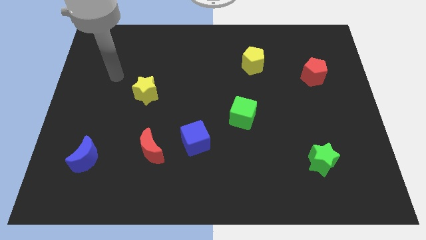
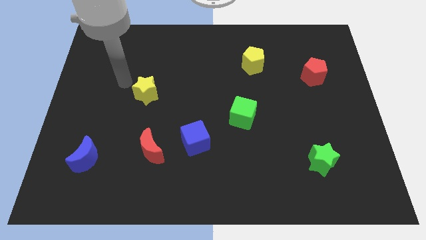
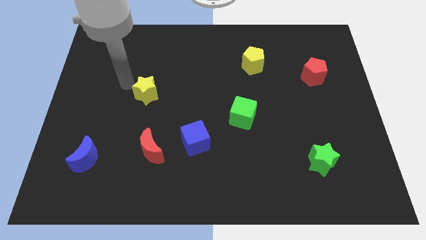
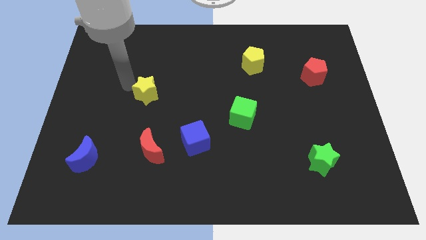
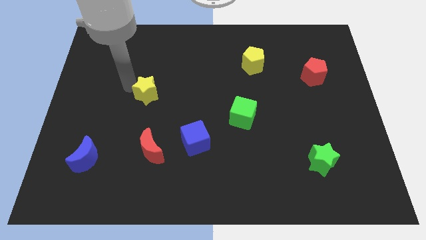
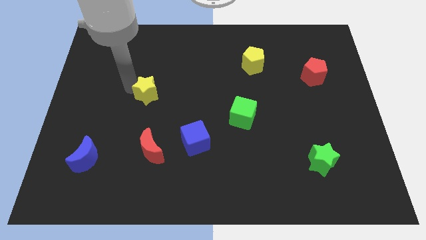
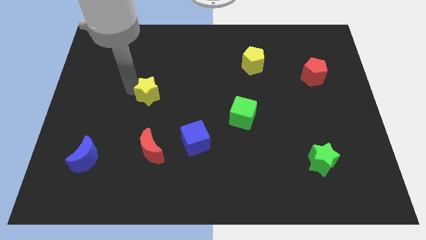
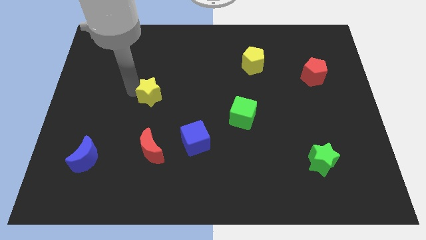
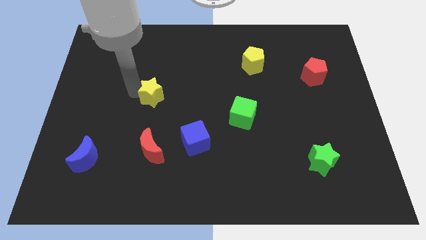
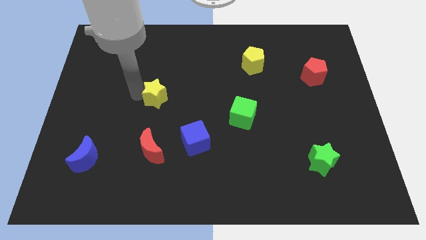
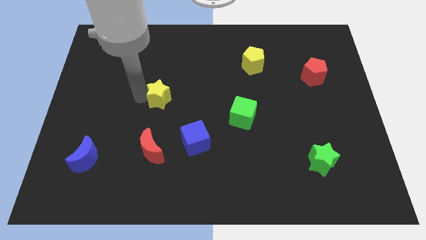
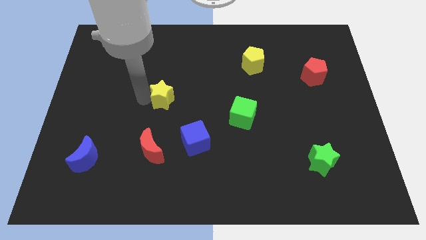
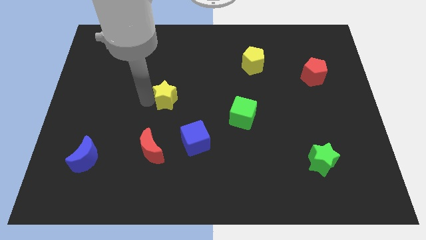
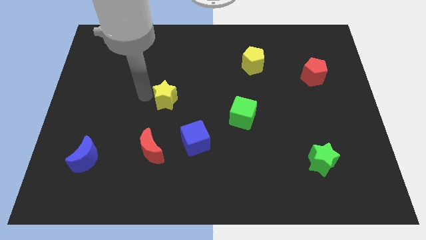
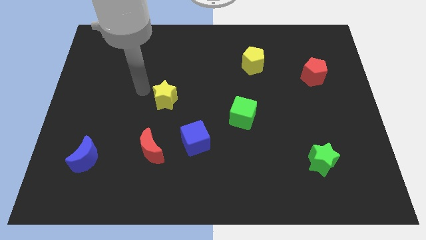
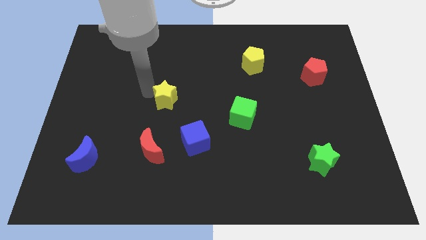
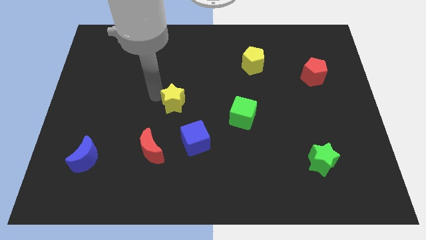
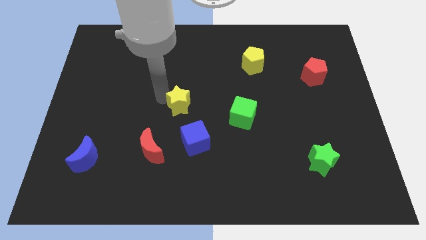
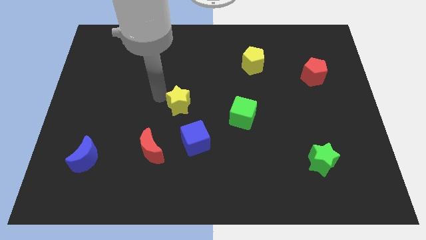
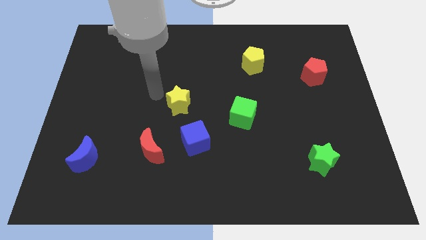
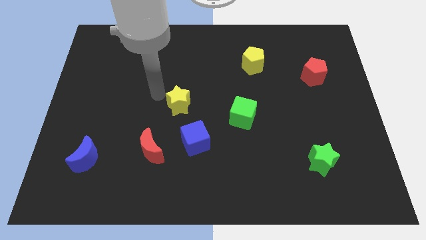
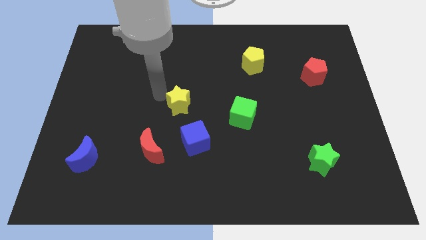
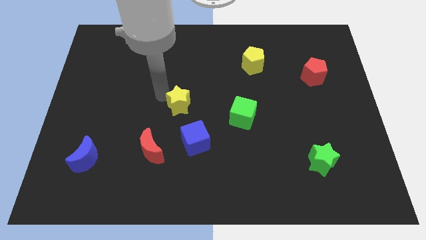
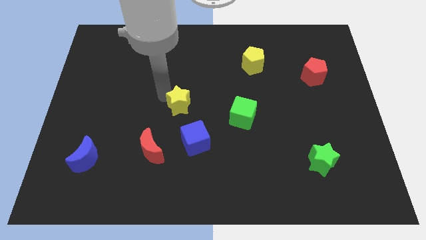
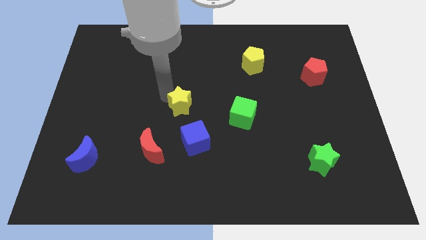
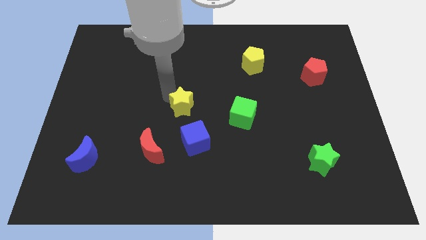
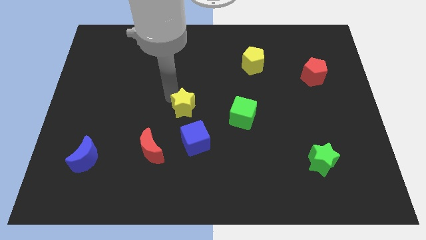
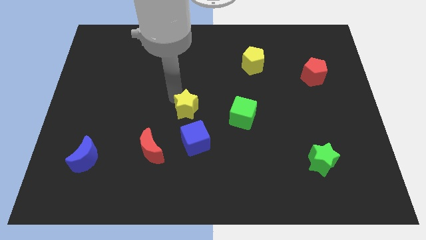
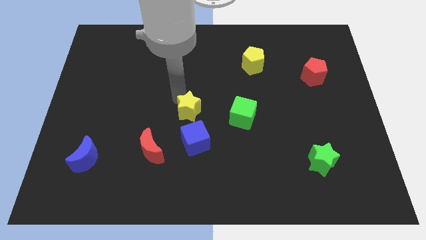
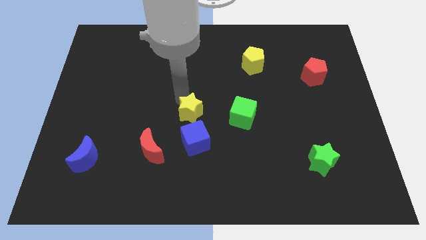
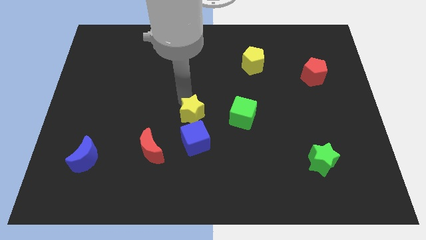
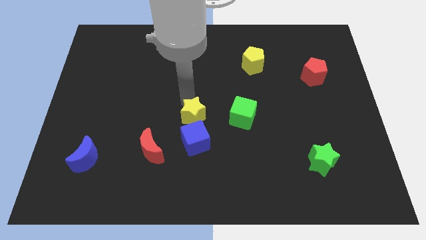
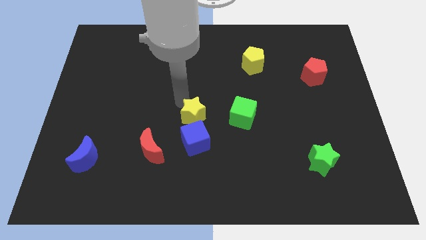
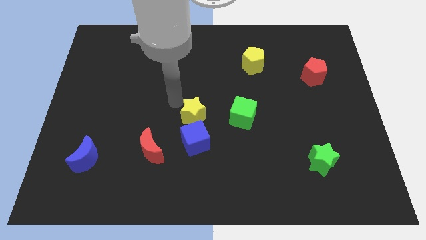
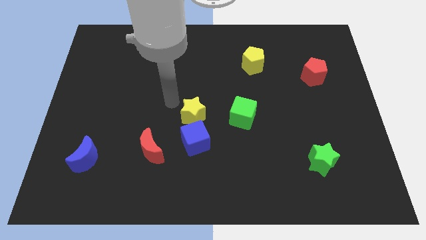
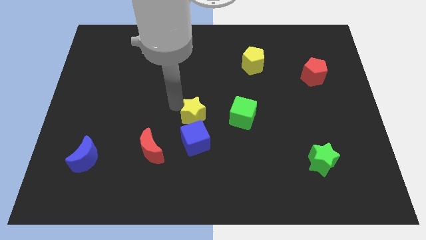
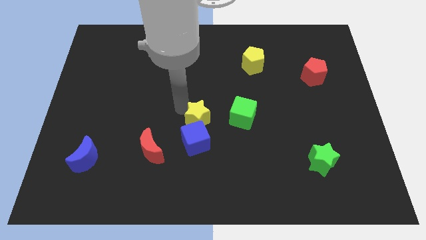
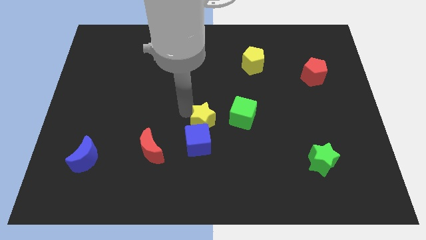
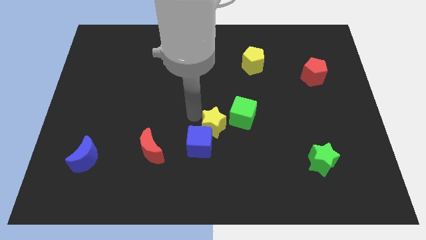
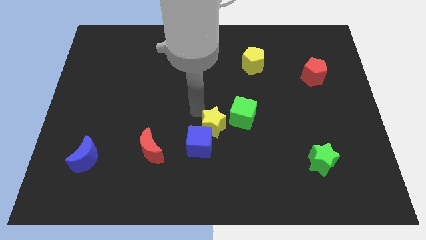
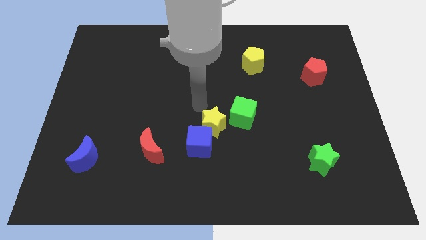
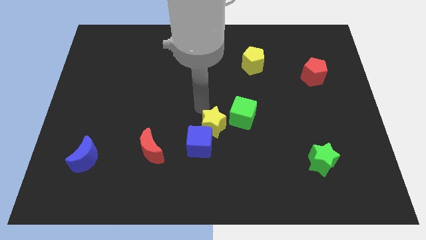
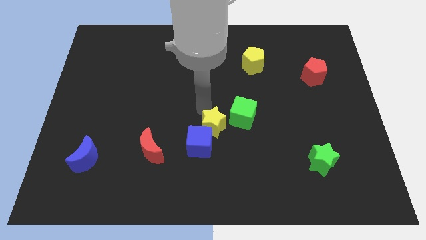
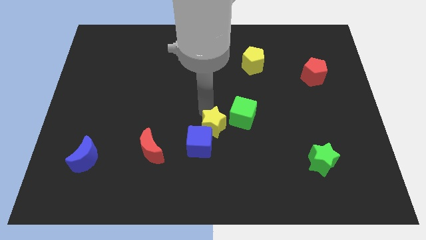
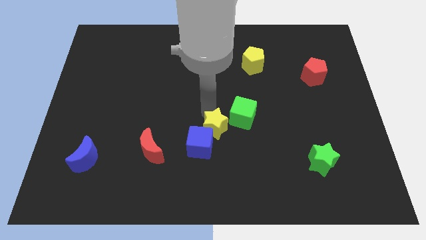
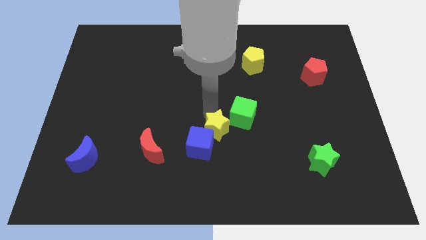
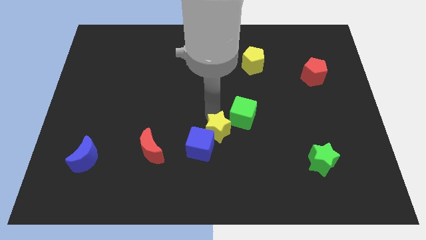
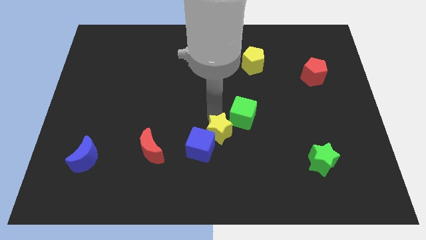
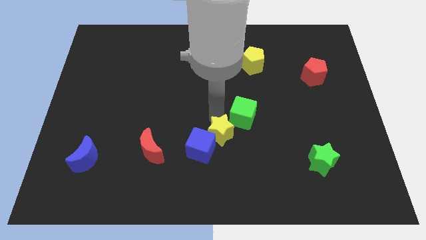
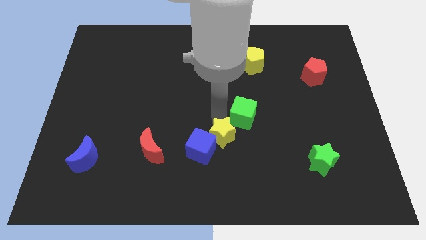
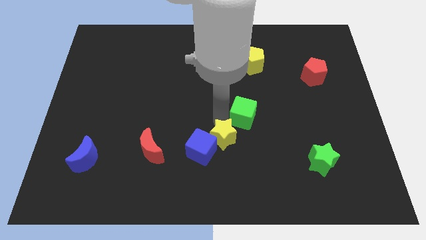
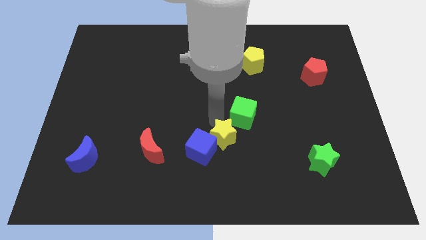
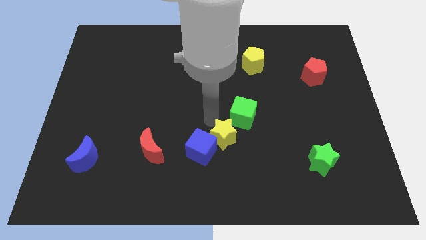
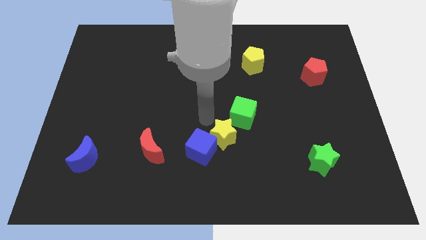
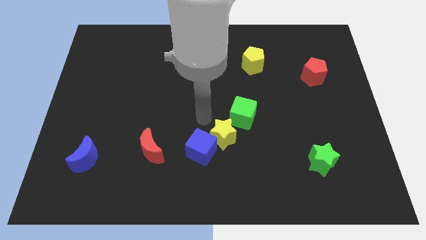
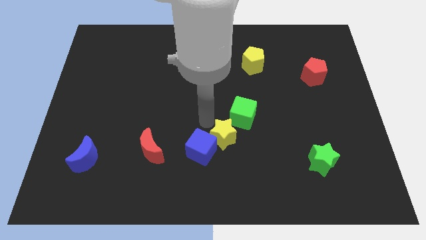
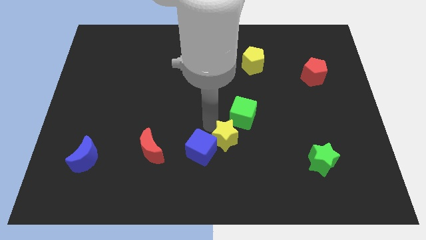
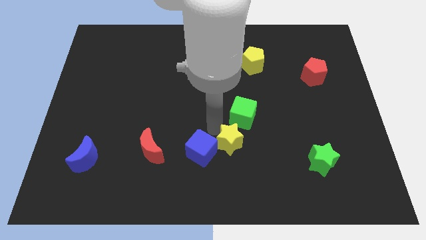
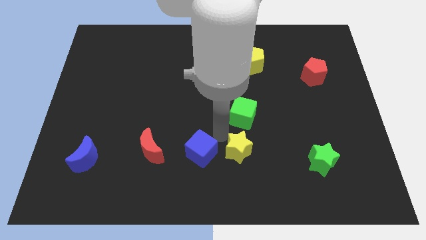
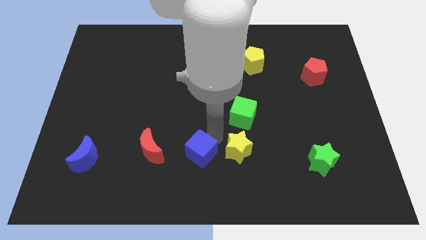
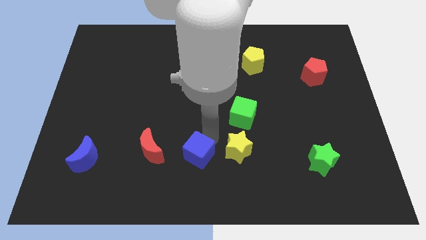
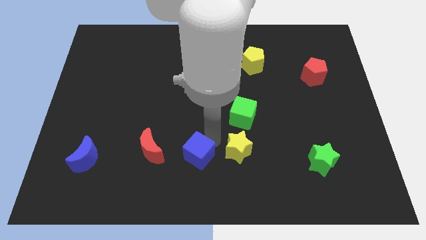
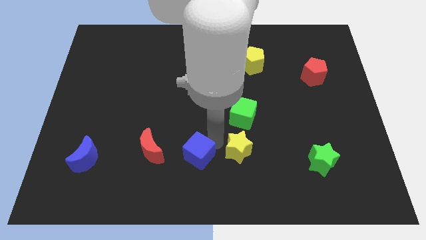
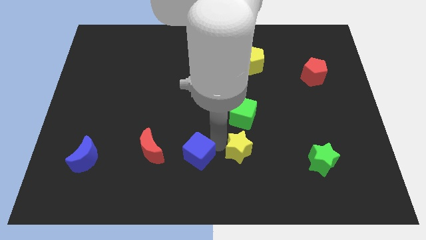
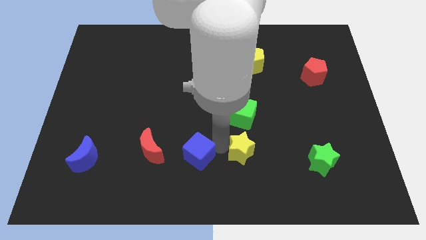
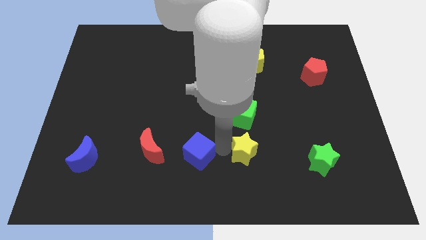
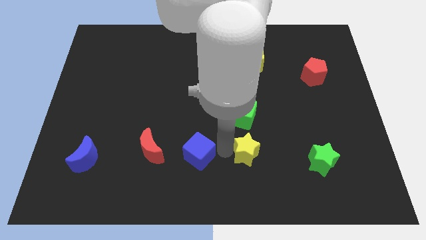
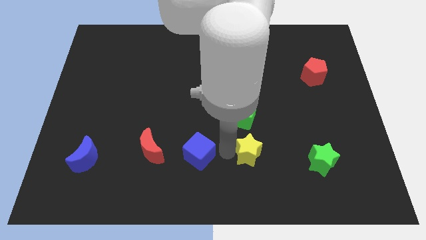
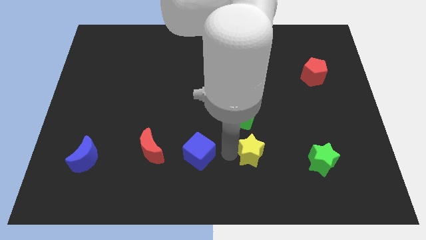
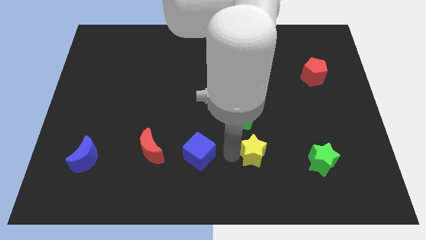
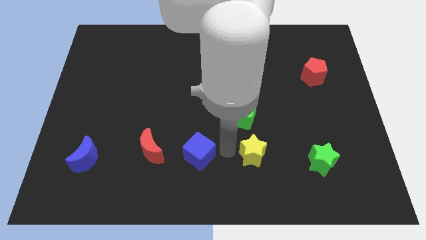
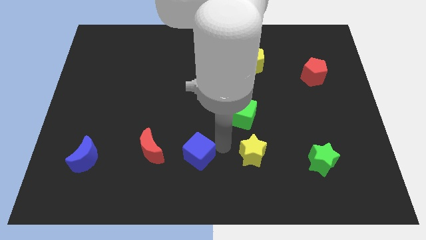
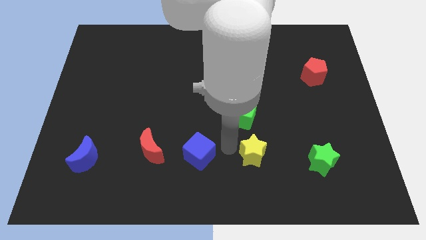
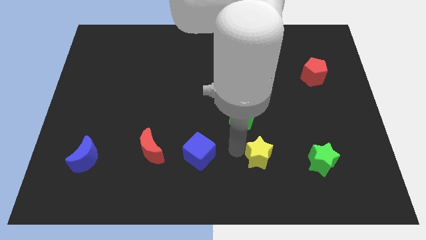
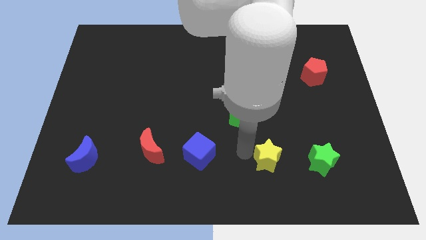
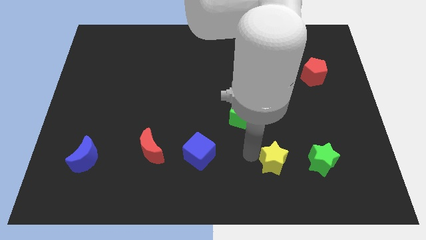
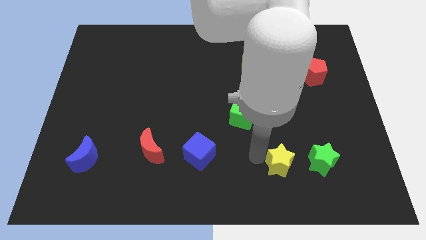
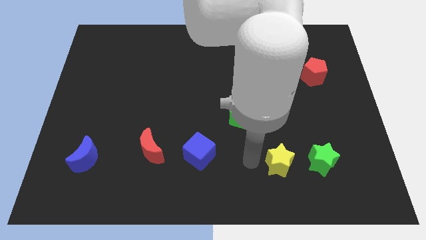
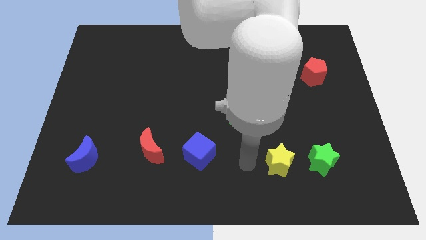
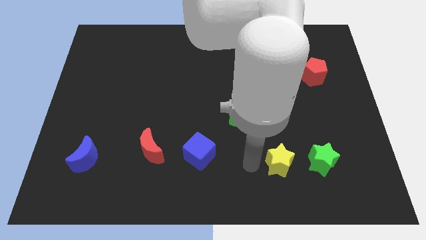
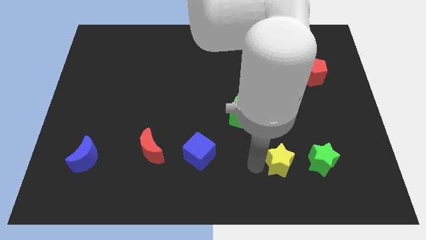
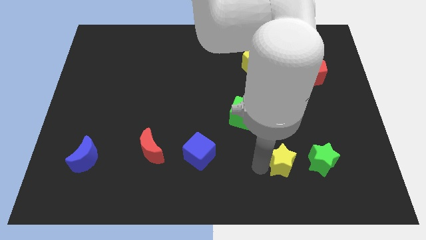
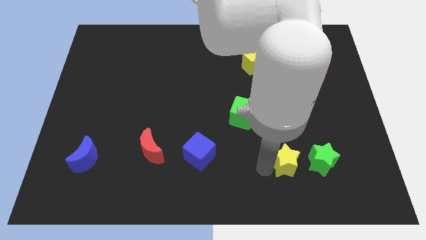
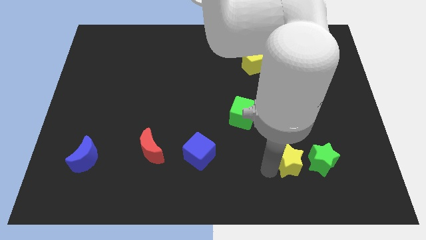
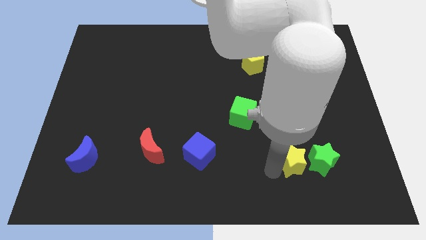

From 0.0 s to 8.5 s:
move the yellow star towards the green star
